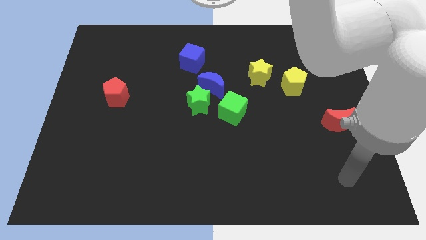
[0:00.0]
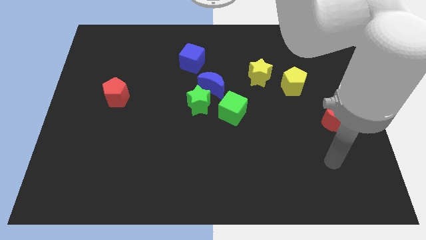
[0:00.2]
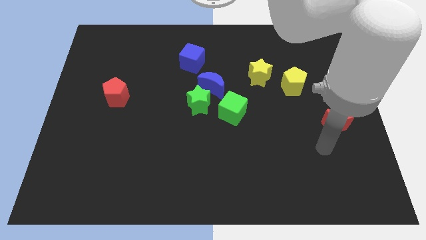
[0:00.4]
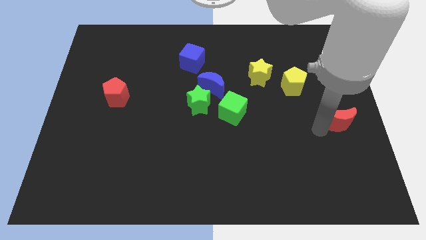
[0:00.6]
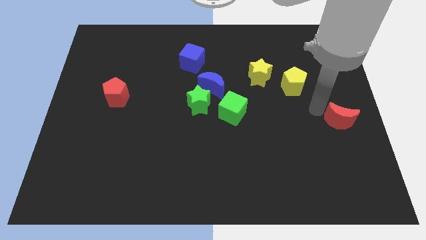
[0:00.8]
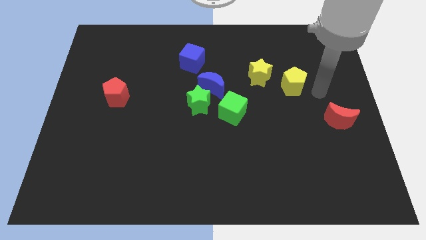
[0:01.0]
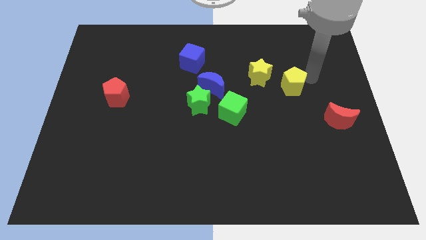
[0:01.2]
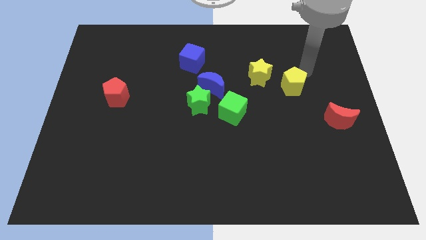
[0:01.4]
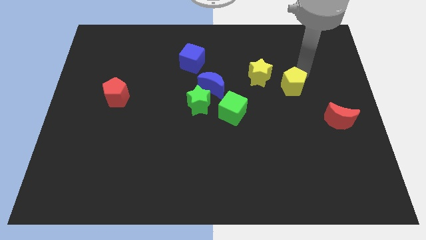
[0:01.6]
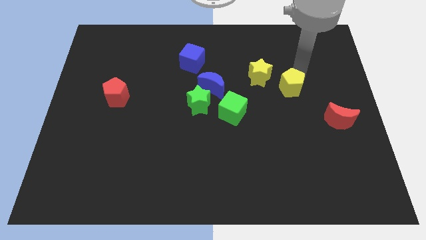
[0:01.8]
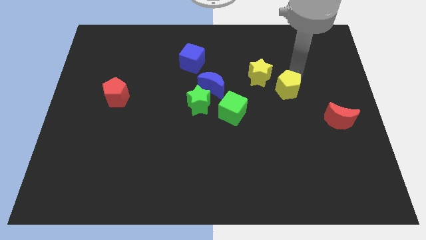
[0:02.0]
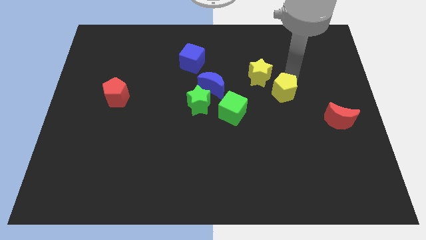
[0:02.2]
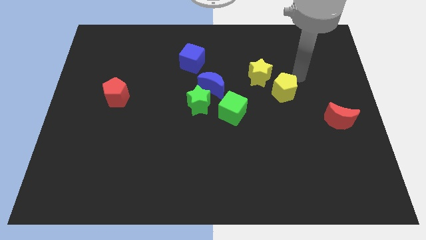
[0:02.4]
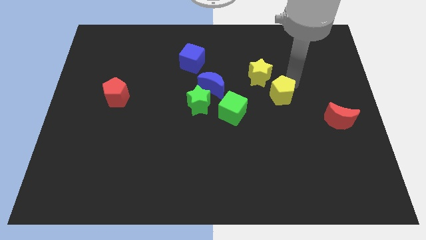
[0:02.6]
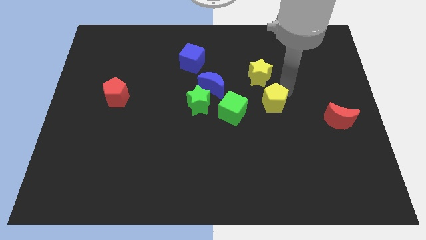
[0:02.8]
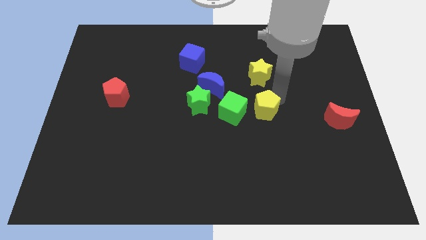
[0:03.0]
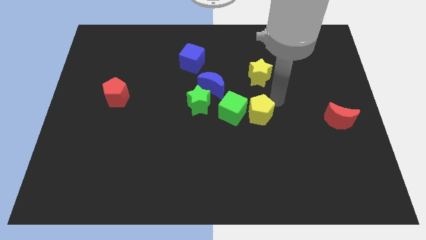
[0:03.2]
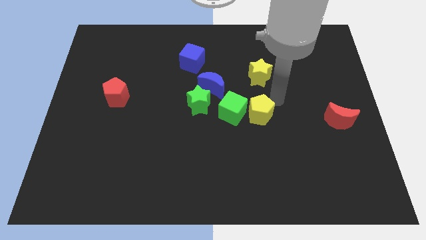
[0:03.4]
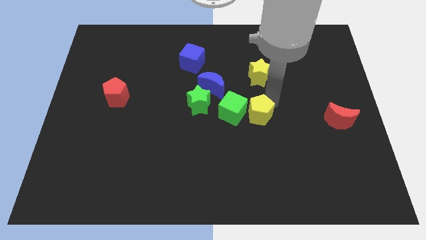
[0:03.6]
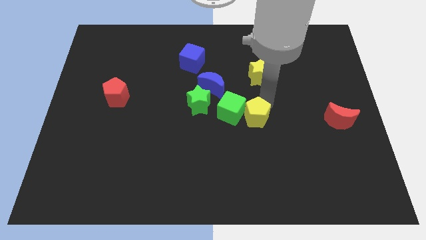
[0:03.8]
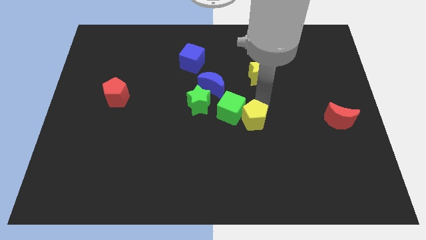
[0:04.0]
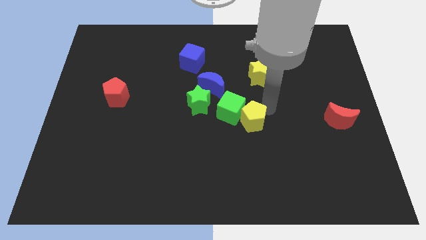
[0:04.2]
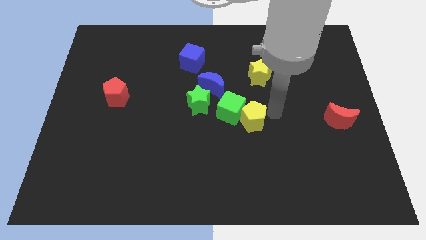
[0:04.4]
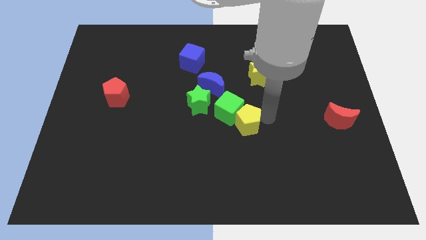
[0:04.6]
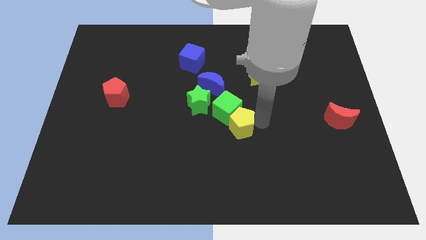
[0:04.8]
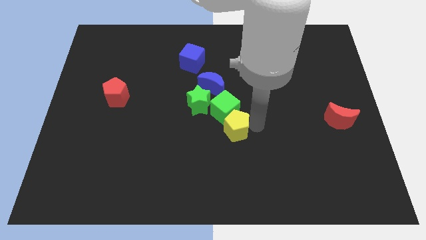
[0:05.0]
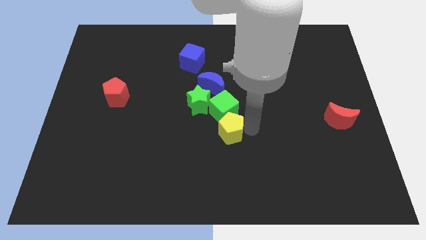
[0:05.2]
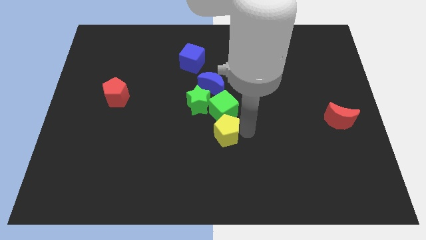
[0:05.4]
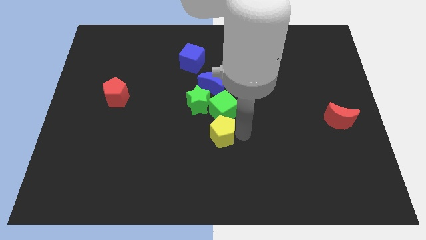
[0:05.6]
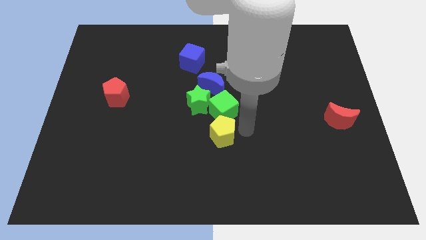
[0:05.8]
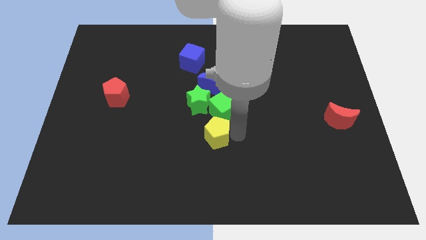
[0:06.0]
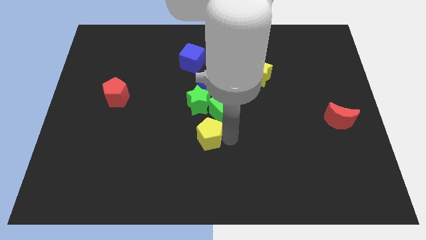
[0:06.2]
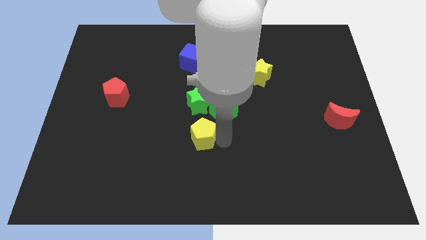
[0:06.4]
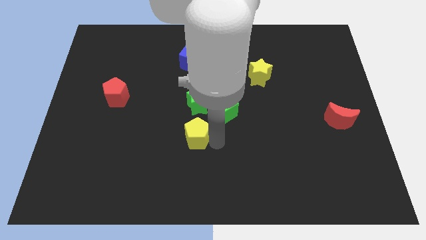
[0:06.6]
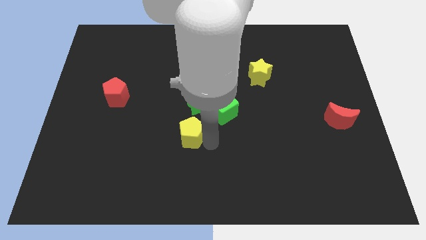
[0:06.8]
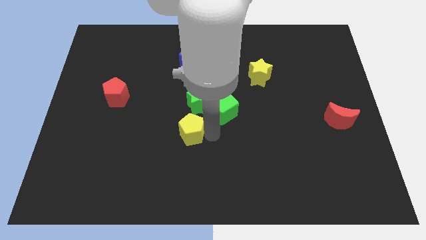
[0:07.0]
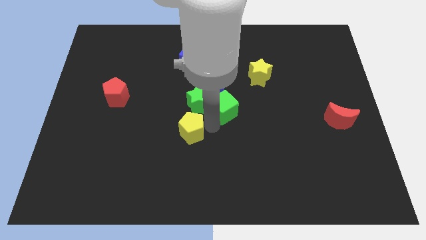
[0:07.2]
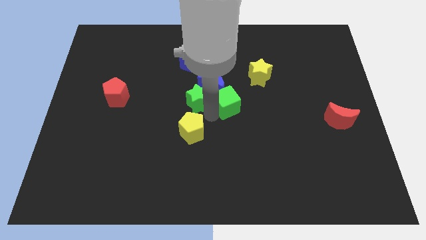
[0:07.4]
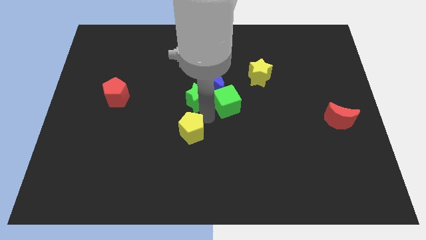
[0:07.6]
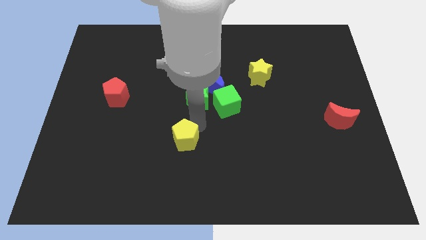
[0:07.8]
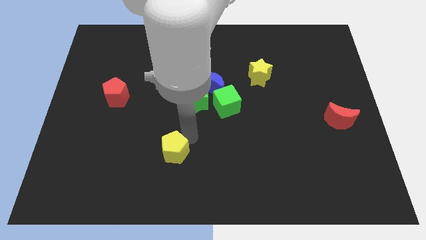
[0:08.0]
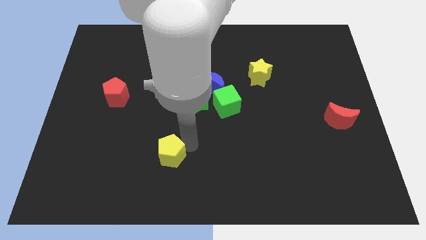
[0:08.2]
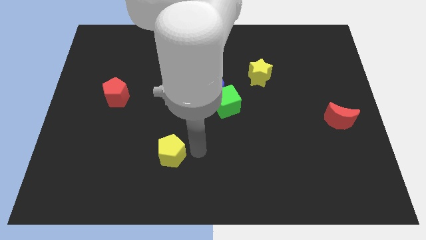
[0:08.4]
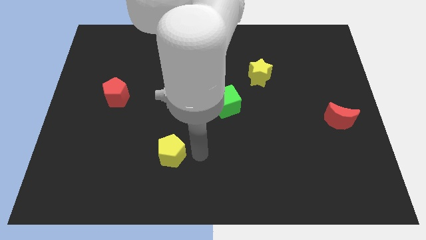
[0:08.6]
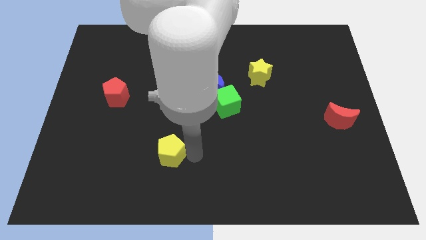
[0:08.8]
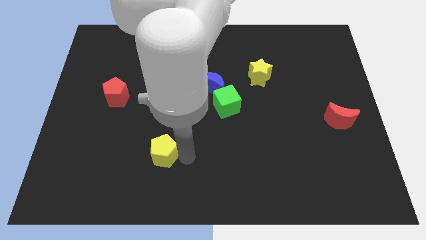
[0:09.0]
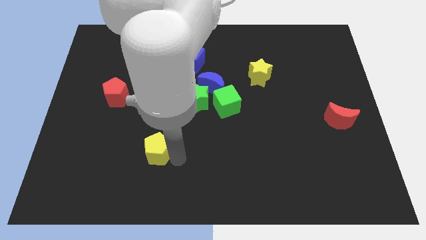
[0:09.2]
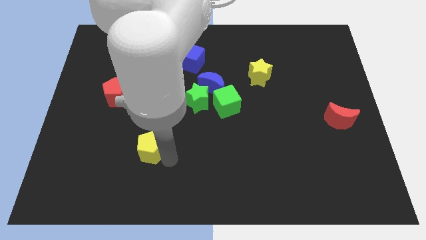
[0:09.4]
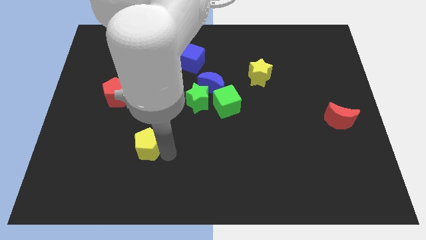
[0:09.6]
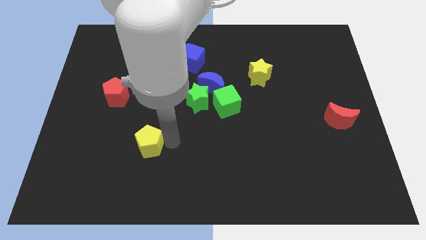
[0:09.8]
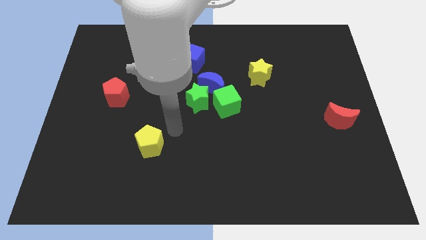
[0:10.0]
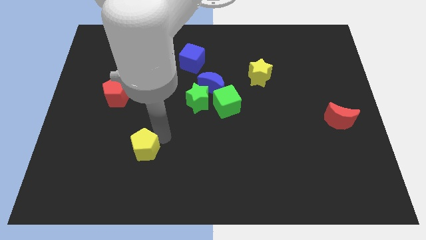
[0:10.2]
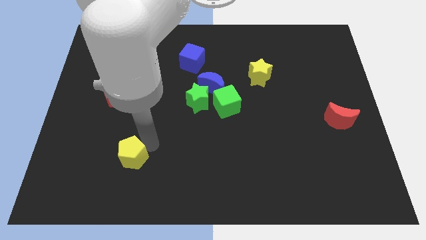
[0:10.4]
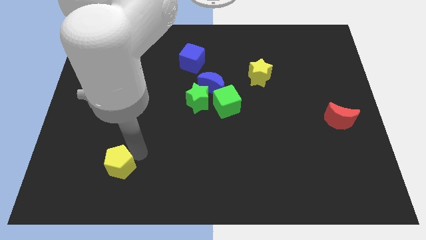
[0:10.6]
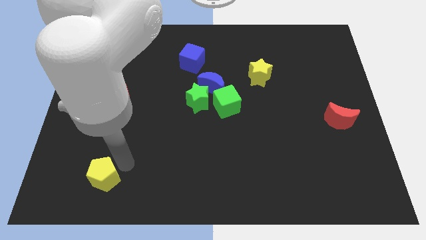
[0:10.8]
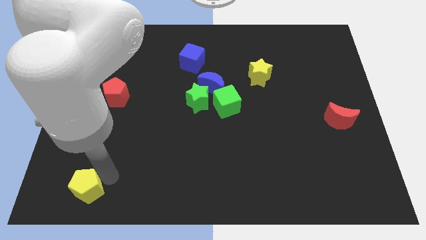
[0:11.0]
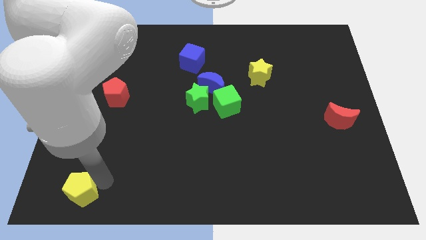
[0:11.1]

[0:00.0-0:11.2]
slide the yellow pentagon to the lower left corner

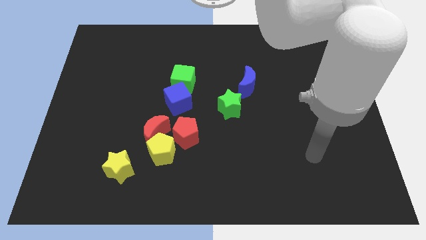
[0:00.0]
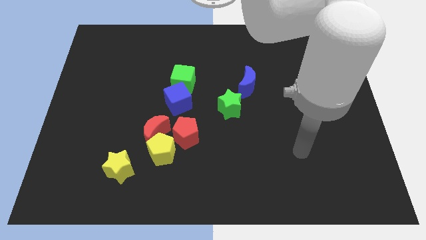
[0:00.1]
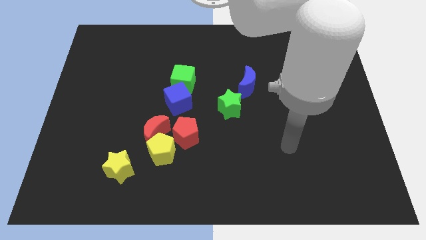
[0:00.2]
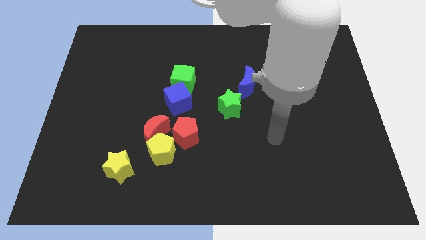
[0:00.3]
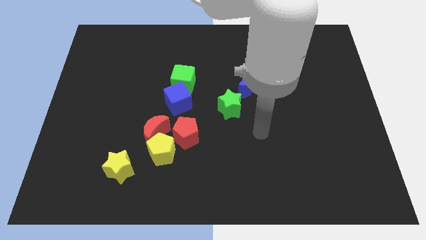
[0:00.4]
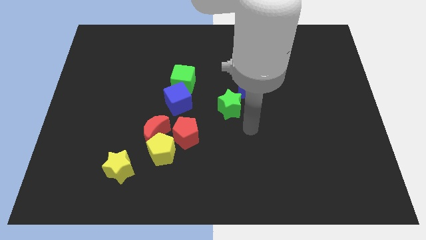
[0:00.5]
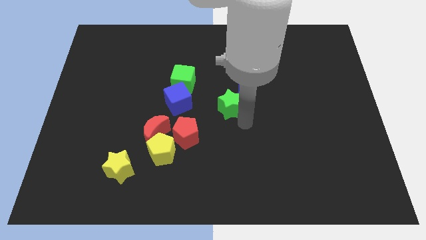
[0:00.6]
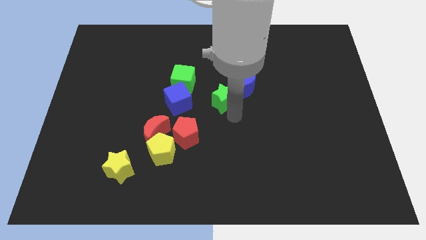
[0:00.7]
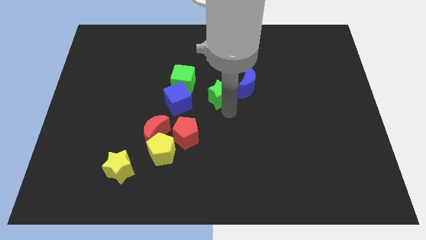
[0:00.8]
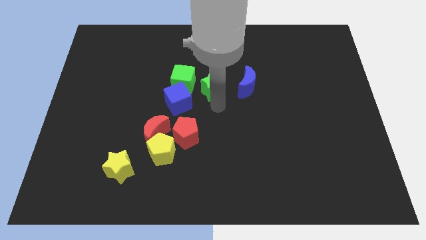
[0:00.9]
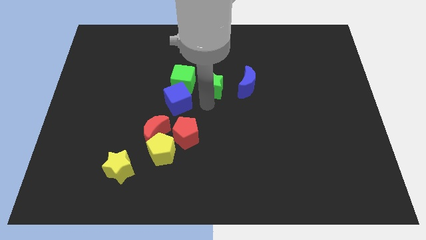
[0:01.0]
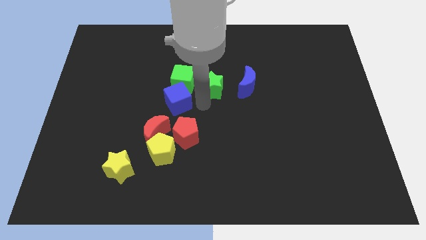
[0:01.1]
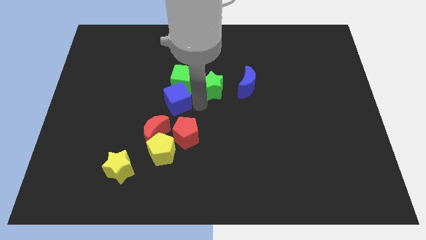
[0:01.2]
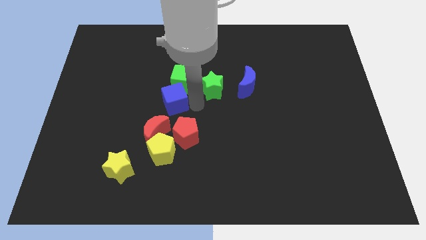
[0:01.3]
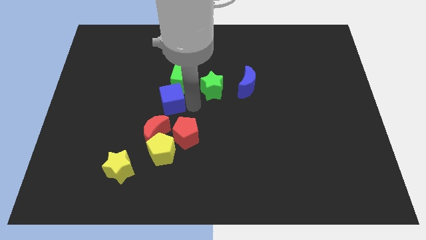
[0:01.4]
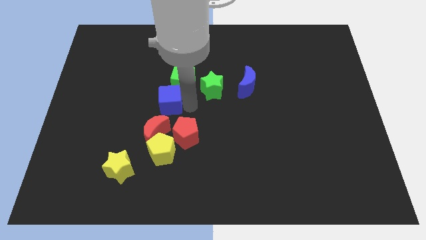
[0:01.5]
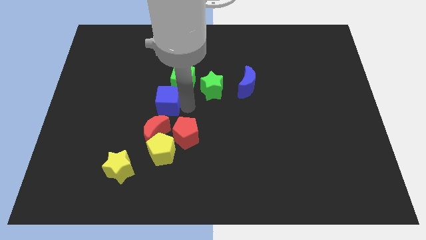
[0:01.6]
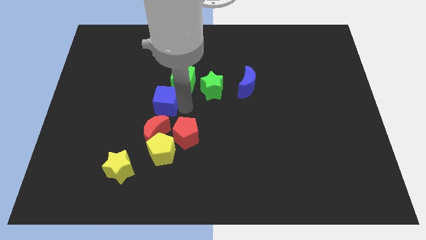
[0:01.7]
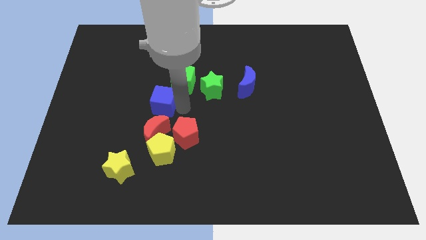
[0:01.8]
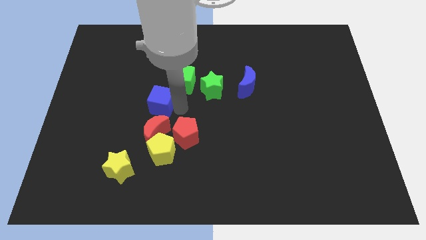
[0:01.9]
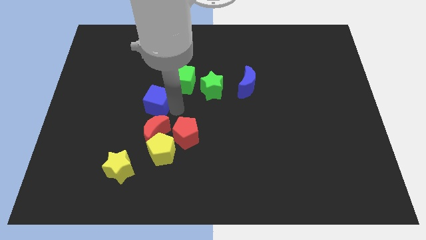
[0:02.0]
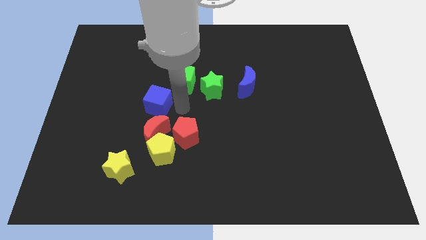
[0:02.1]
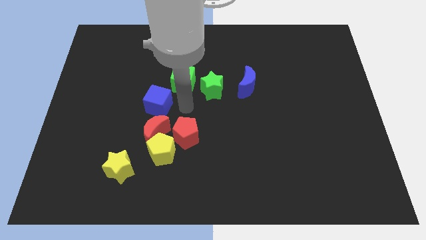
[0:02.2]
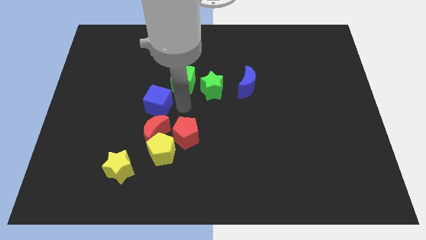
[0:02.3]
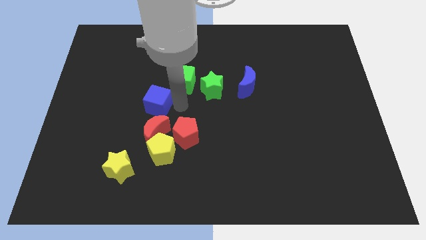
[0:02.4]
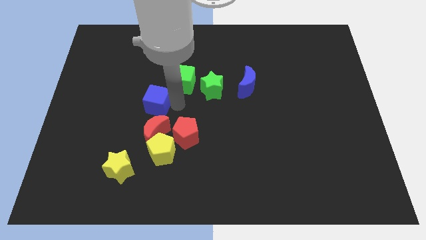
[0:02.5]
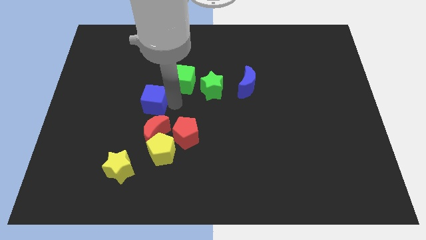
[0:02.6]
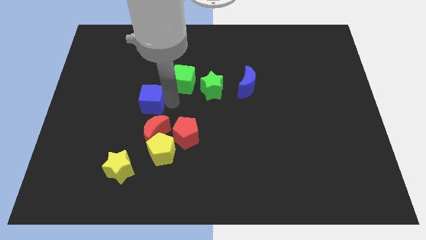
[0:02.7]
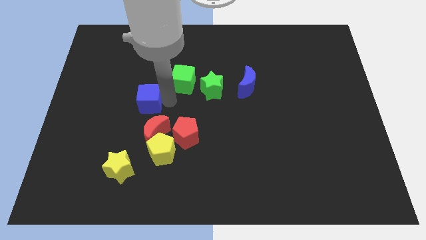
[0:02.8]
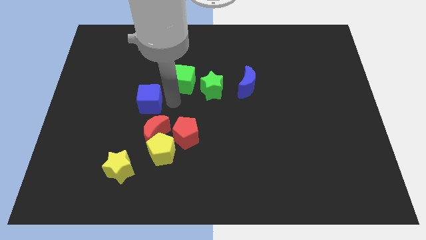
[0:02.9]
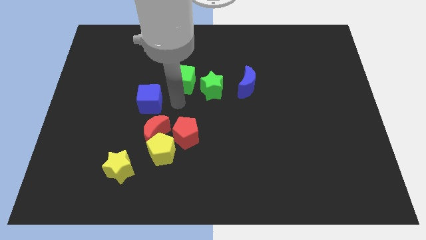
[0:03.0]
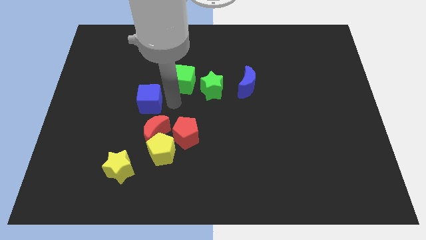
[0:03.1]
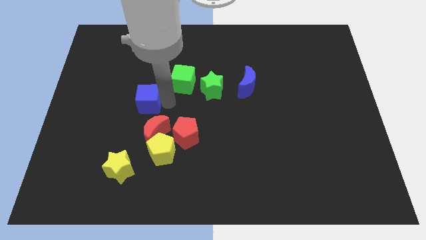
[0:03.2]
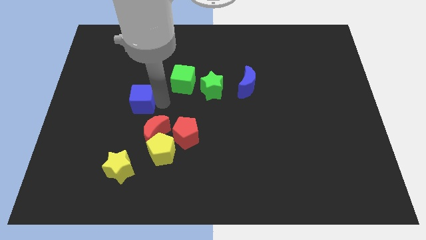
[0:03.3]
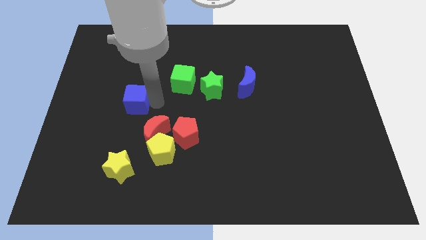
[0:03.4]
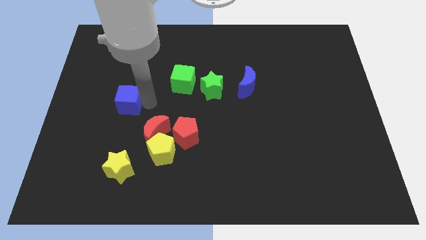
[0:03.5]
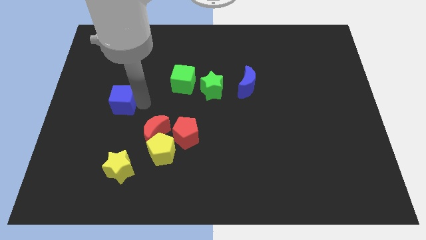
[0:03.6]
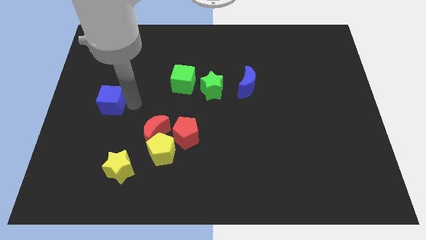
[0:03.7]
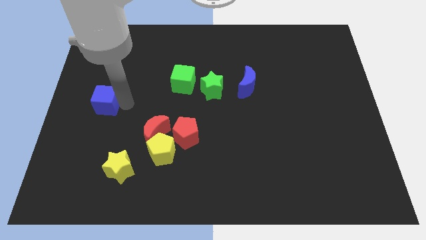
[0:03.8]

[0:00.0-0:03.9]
put the blue cube to the center left
